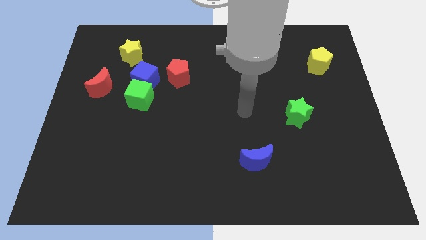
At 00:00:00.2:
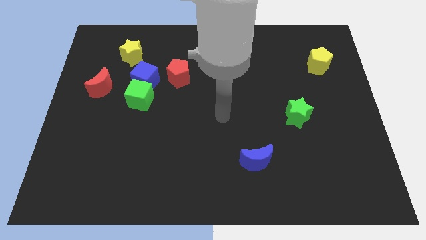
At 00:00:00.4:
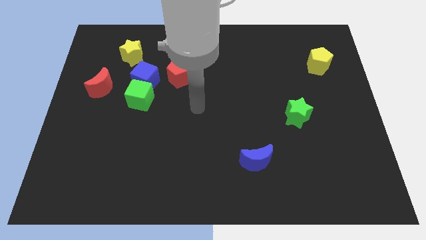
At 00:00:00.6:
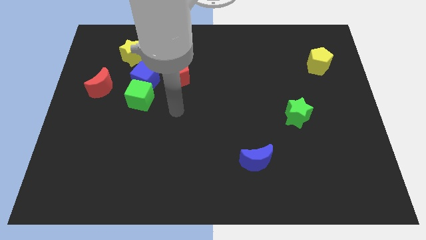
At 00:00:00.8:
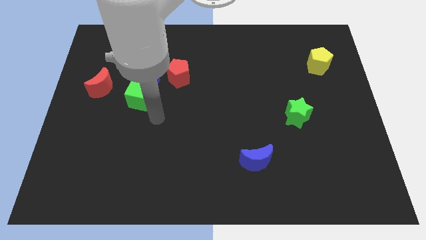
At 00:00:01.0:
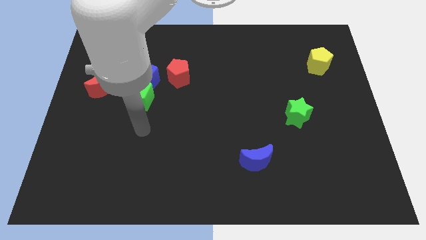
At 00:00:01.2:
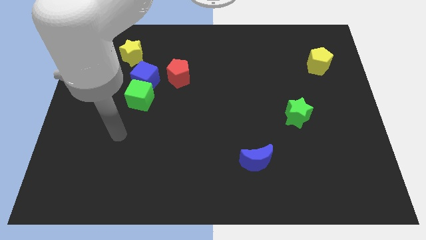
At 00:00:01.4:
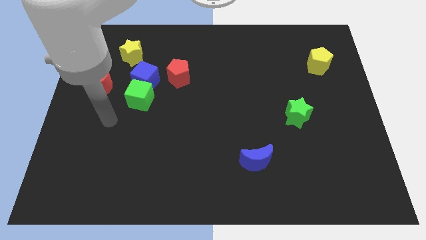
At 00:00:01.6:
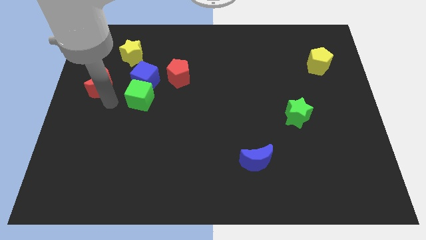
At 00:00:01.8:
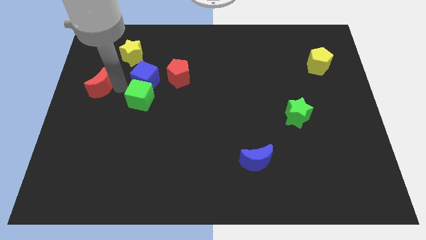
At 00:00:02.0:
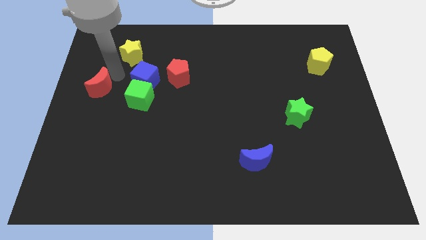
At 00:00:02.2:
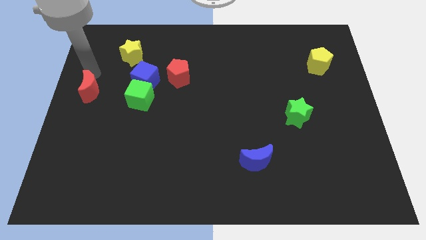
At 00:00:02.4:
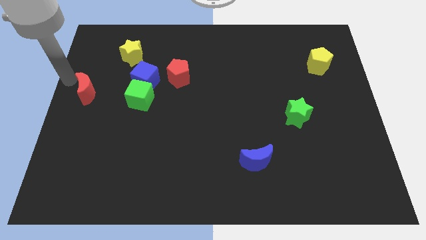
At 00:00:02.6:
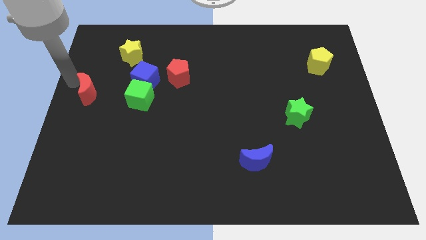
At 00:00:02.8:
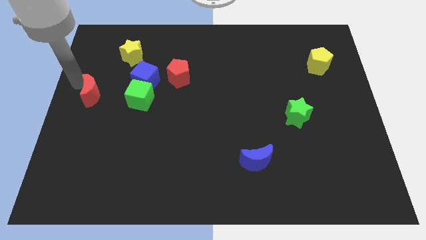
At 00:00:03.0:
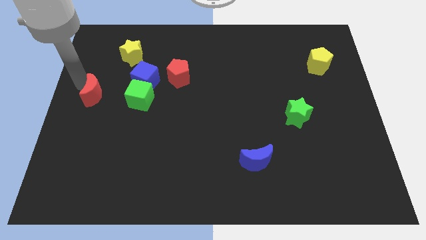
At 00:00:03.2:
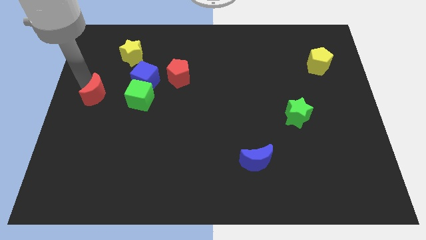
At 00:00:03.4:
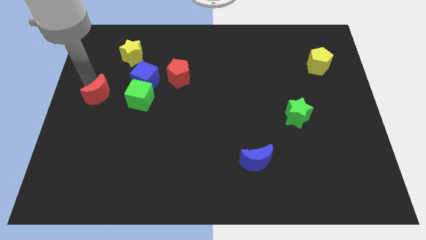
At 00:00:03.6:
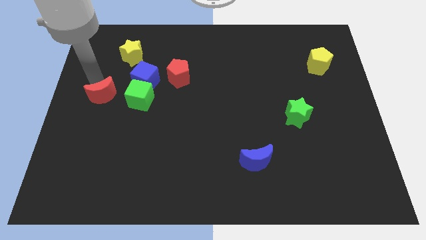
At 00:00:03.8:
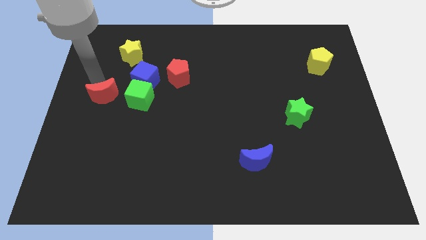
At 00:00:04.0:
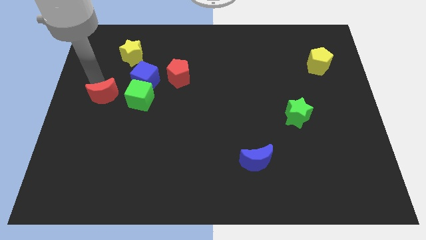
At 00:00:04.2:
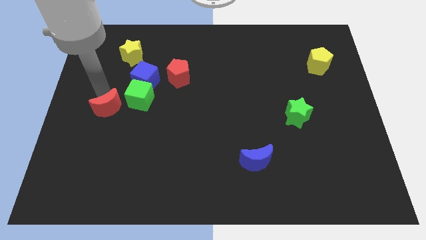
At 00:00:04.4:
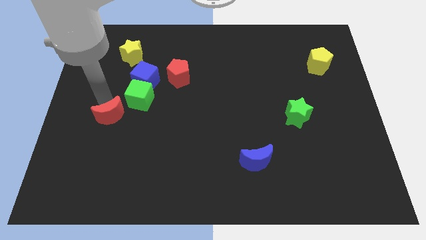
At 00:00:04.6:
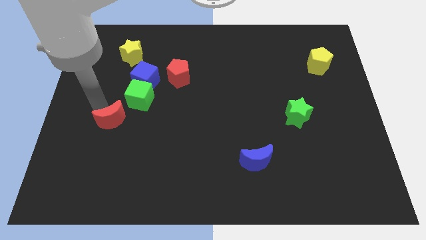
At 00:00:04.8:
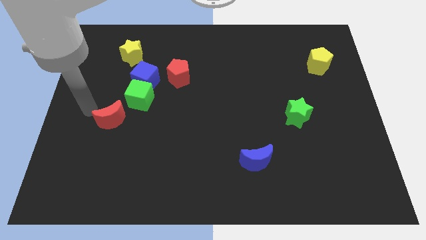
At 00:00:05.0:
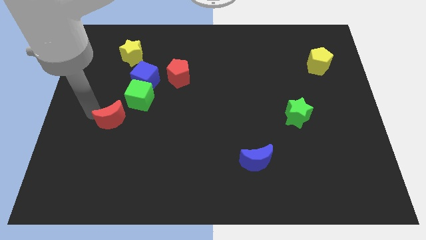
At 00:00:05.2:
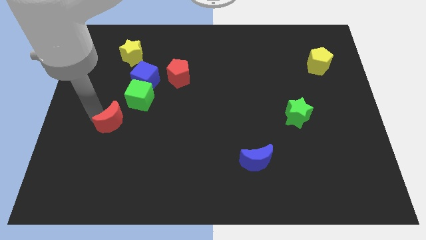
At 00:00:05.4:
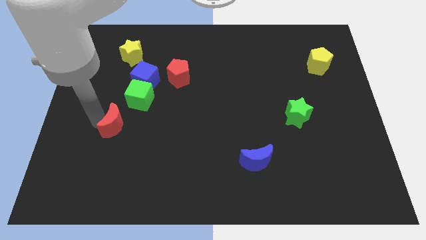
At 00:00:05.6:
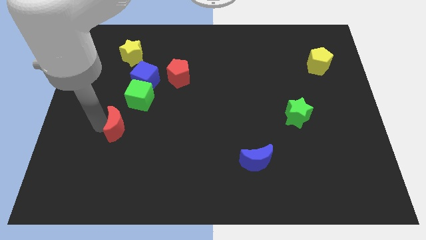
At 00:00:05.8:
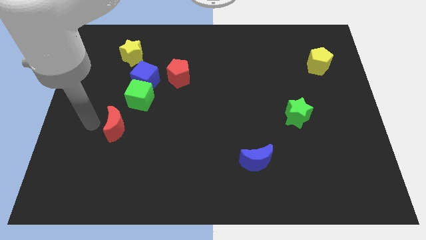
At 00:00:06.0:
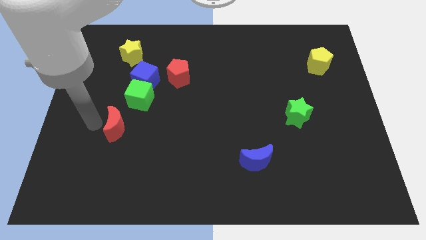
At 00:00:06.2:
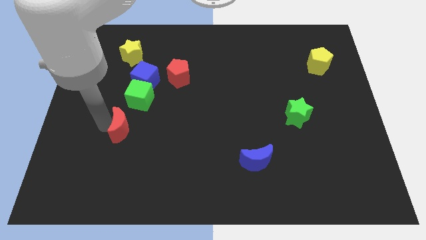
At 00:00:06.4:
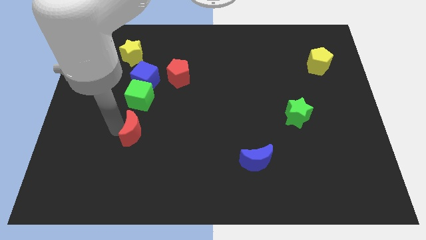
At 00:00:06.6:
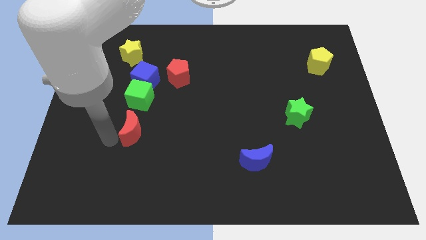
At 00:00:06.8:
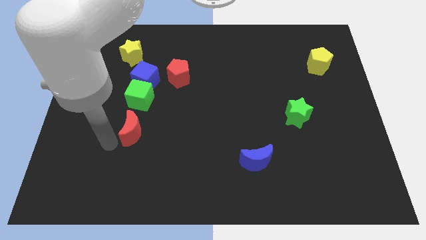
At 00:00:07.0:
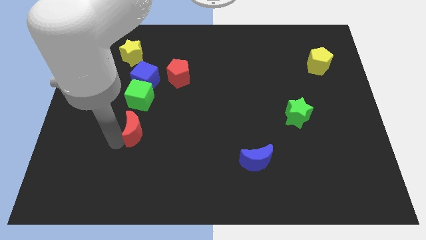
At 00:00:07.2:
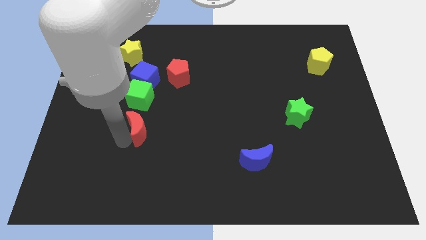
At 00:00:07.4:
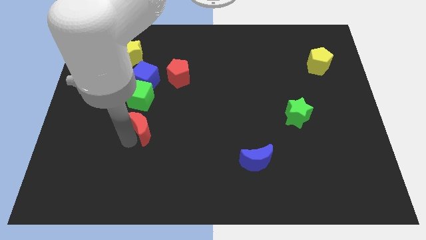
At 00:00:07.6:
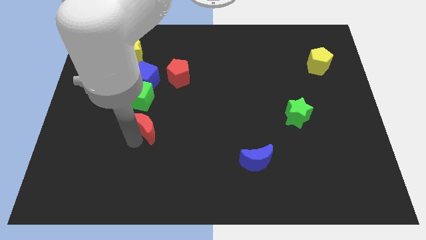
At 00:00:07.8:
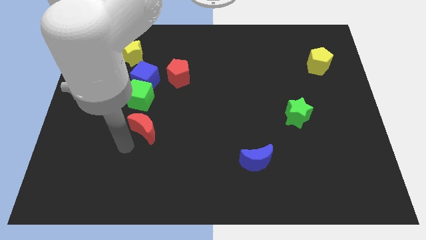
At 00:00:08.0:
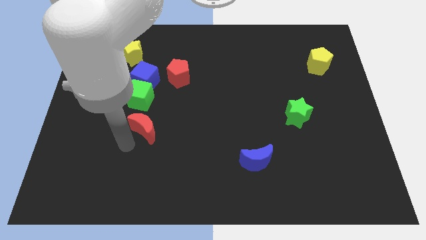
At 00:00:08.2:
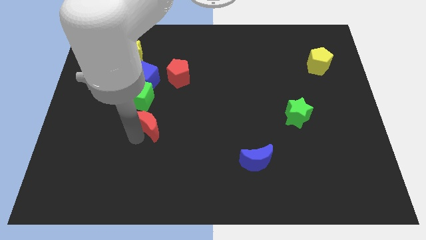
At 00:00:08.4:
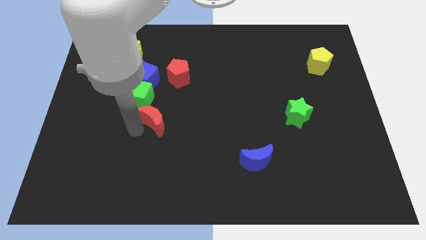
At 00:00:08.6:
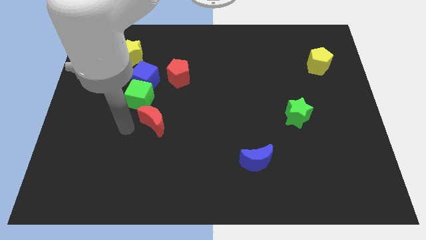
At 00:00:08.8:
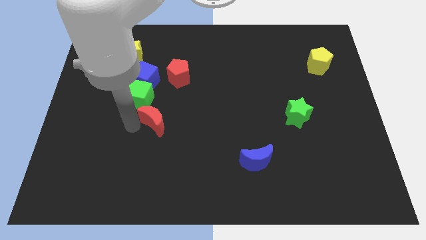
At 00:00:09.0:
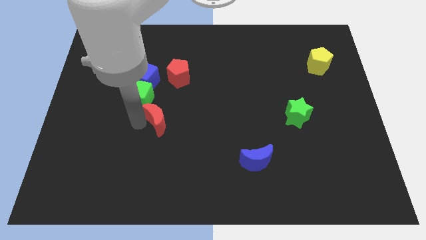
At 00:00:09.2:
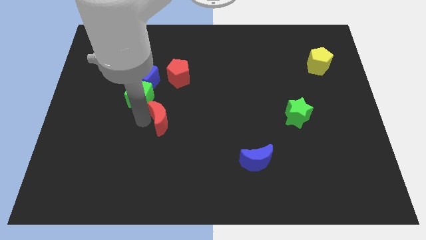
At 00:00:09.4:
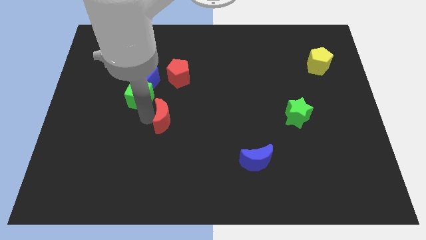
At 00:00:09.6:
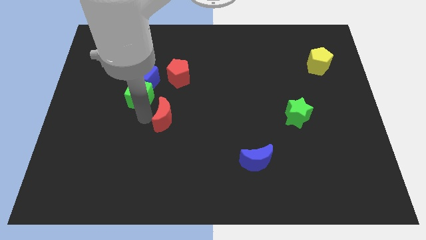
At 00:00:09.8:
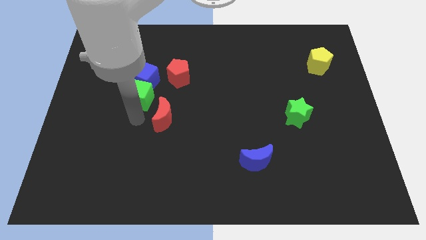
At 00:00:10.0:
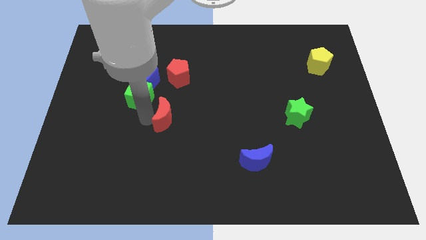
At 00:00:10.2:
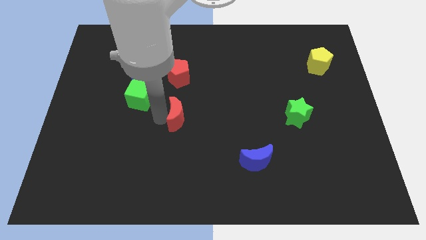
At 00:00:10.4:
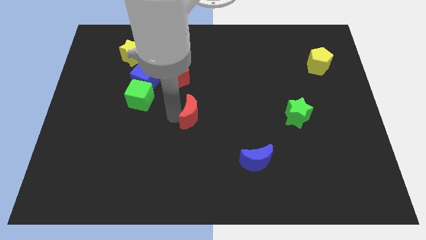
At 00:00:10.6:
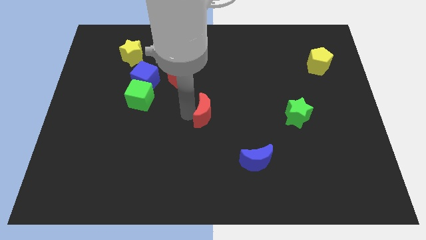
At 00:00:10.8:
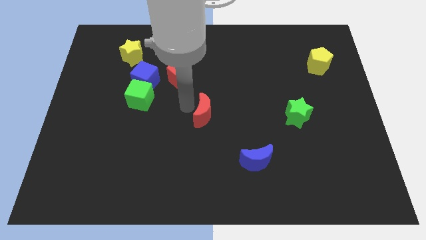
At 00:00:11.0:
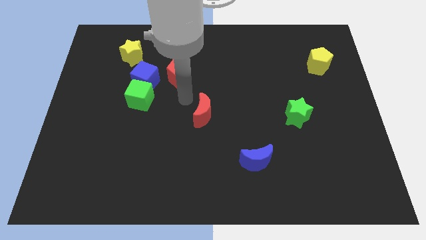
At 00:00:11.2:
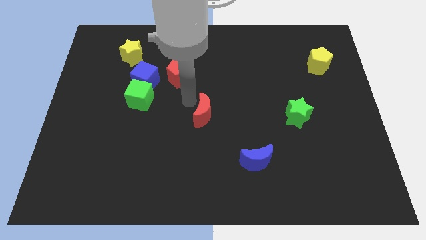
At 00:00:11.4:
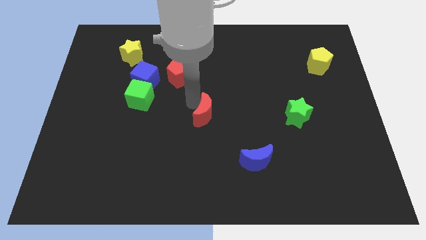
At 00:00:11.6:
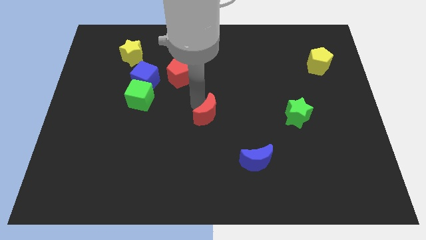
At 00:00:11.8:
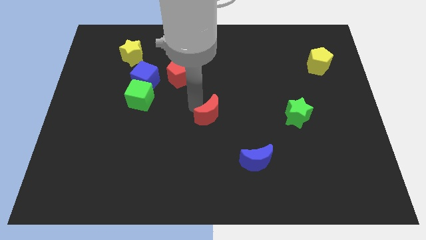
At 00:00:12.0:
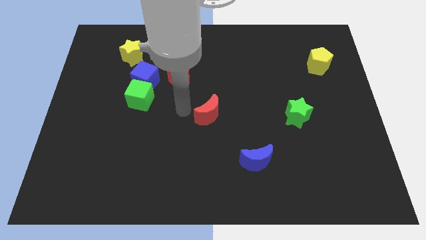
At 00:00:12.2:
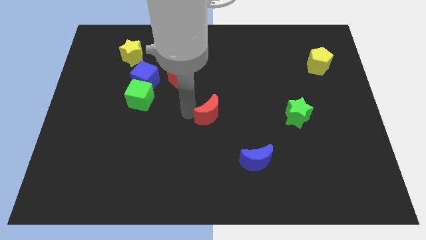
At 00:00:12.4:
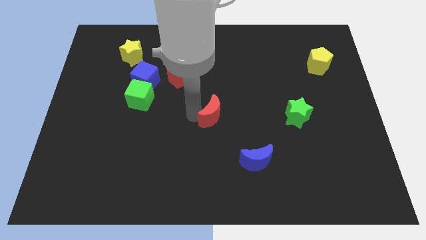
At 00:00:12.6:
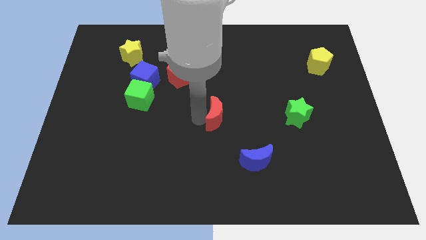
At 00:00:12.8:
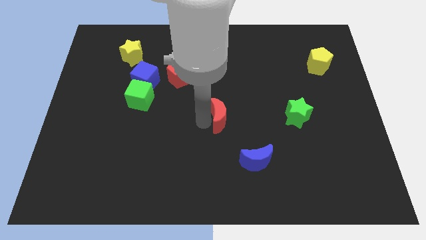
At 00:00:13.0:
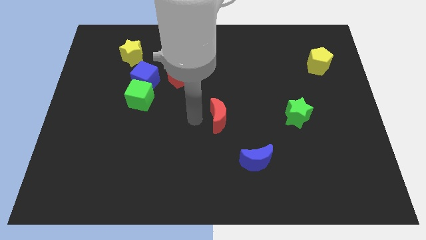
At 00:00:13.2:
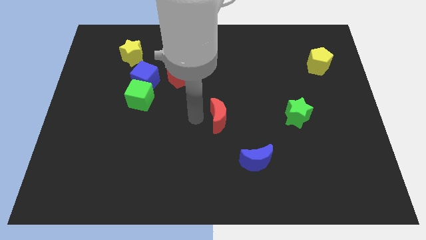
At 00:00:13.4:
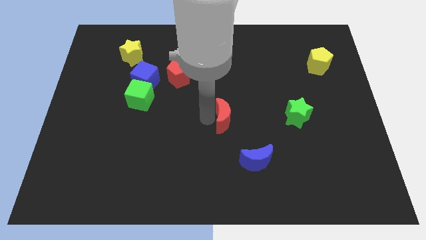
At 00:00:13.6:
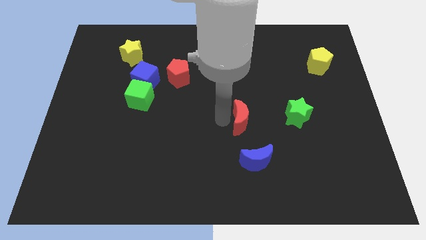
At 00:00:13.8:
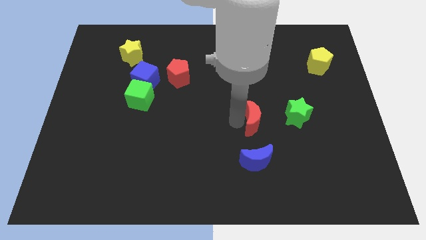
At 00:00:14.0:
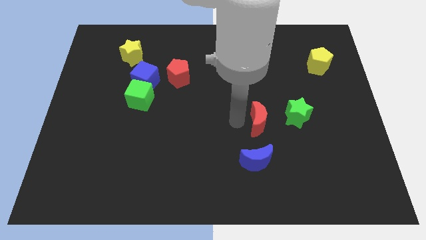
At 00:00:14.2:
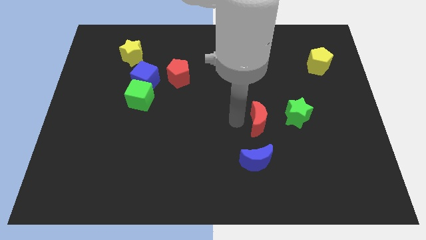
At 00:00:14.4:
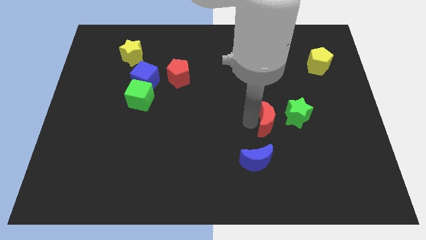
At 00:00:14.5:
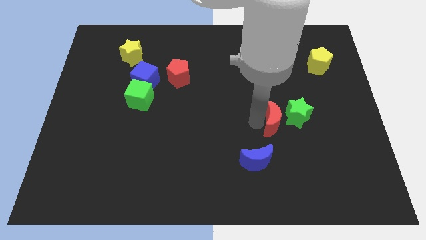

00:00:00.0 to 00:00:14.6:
put the red moon close to the green star

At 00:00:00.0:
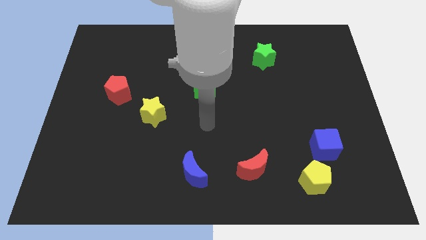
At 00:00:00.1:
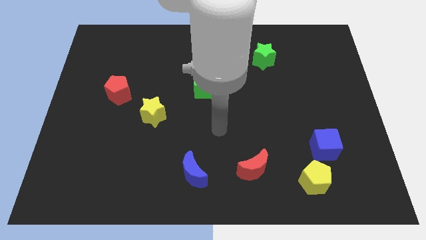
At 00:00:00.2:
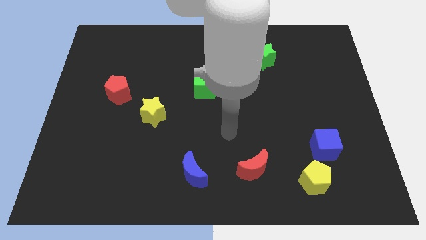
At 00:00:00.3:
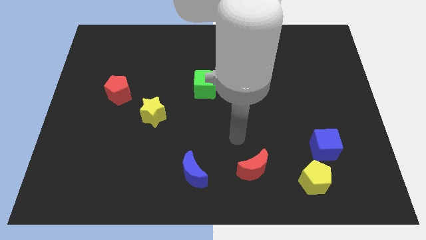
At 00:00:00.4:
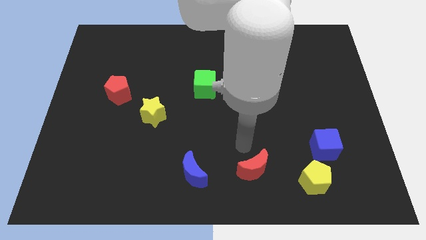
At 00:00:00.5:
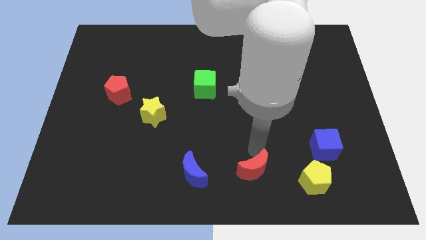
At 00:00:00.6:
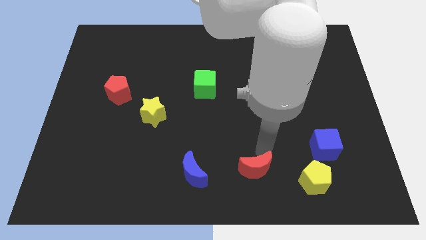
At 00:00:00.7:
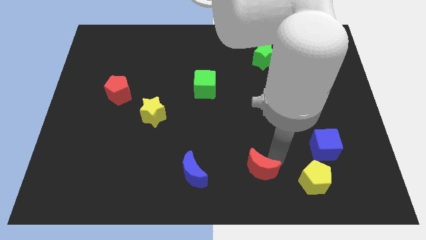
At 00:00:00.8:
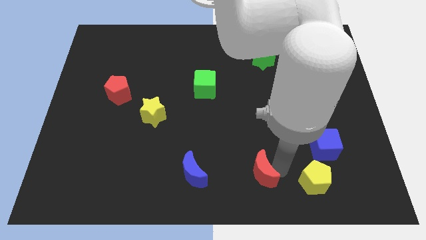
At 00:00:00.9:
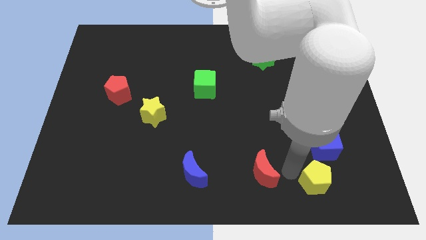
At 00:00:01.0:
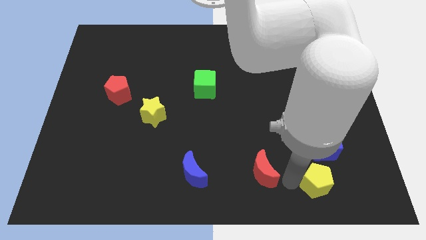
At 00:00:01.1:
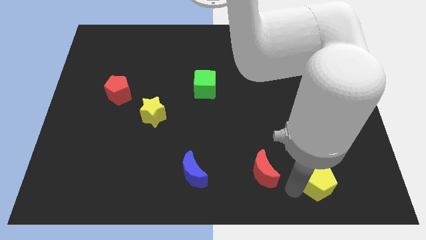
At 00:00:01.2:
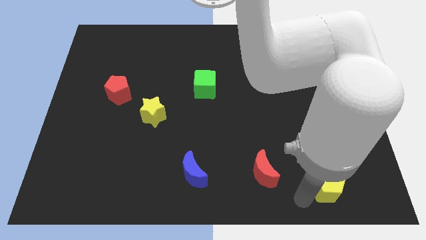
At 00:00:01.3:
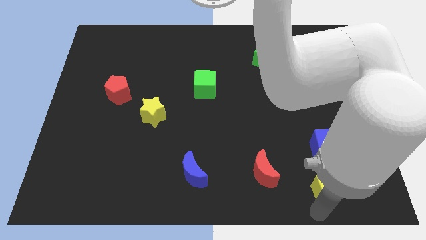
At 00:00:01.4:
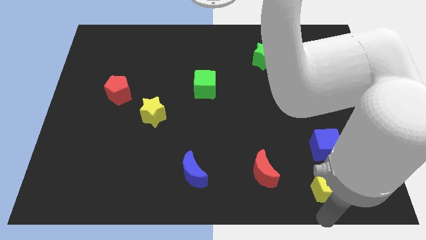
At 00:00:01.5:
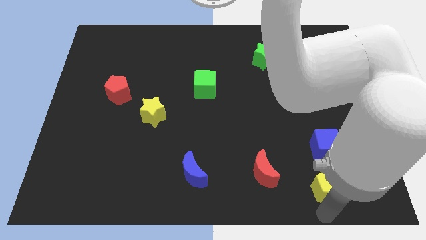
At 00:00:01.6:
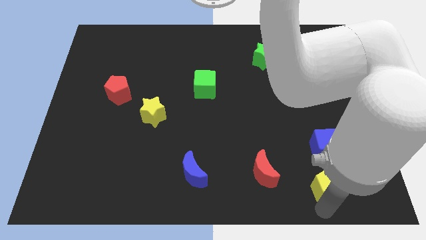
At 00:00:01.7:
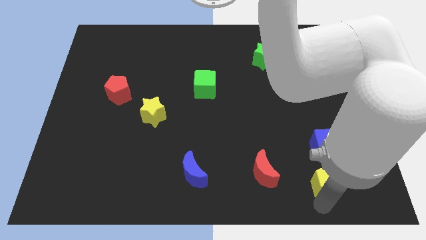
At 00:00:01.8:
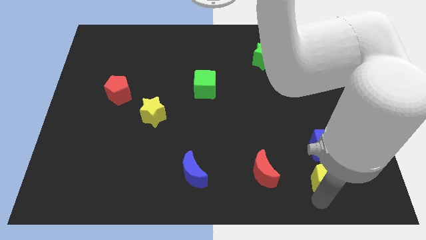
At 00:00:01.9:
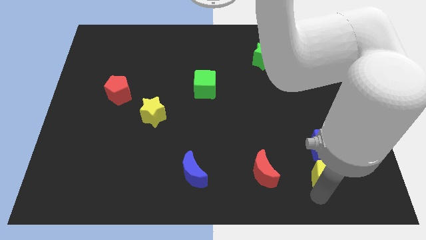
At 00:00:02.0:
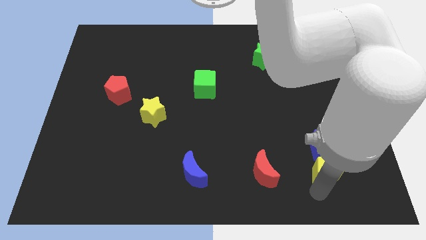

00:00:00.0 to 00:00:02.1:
slide the yellow pentagon close to the blue cube
